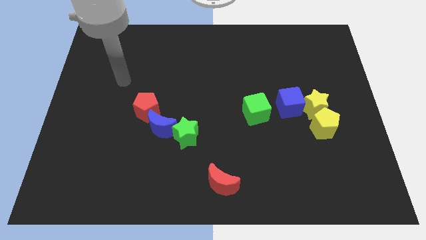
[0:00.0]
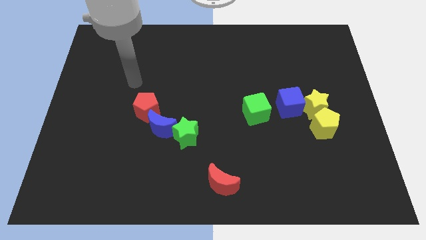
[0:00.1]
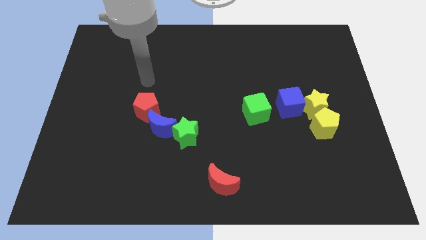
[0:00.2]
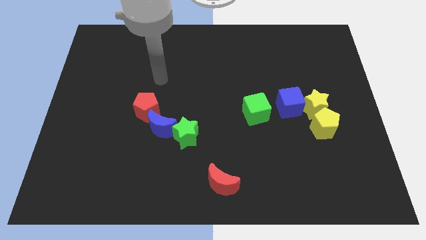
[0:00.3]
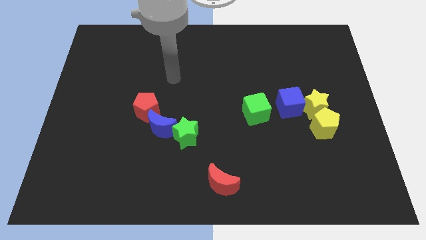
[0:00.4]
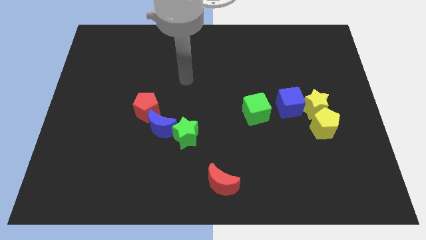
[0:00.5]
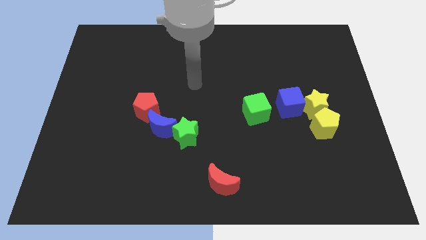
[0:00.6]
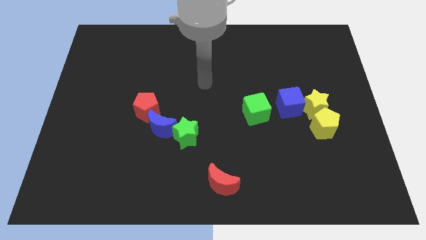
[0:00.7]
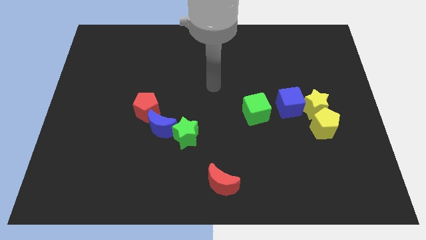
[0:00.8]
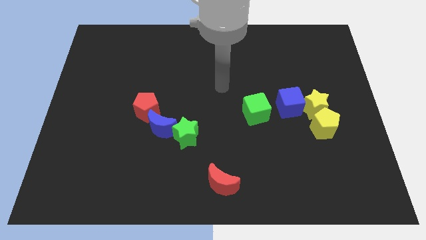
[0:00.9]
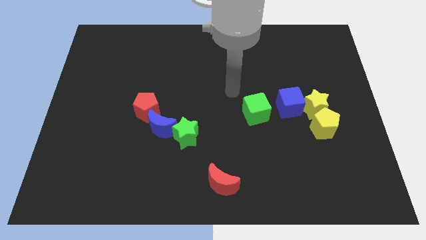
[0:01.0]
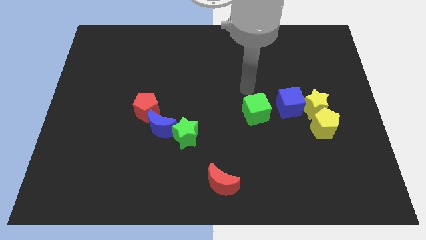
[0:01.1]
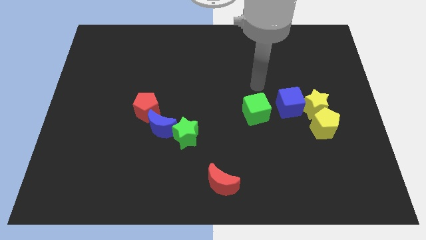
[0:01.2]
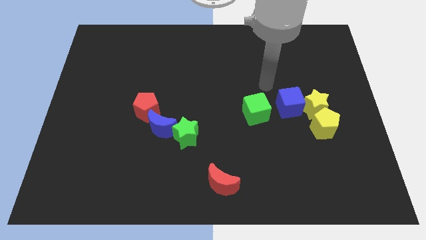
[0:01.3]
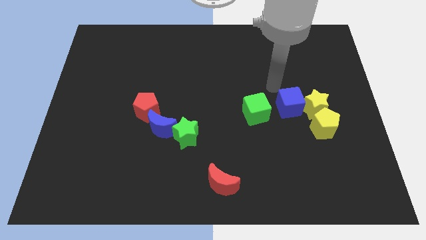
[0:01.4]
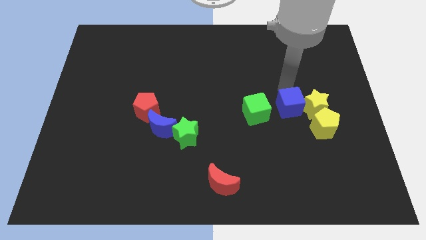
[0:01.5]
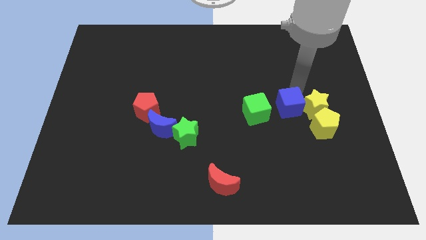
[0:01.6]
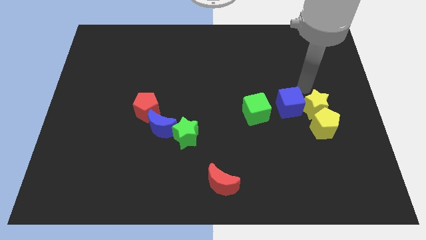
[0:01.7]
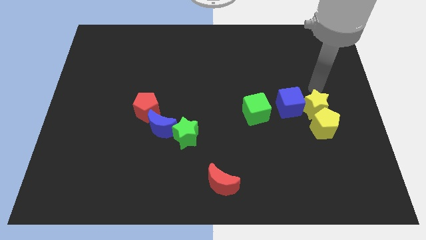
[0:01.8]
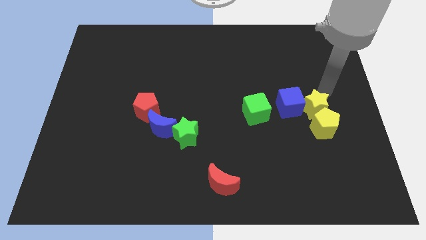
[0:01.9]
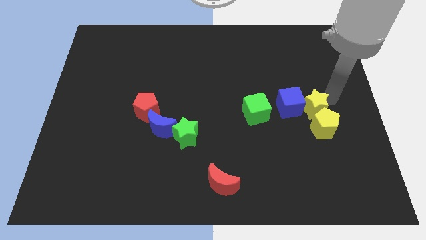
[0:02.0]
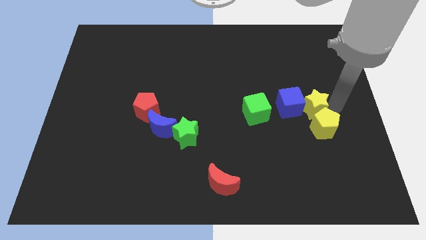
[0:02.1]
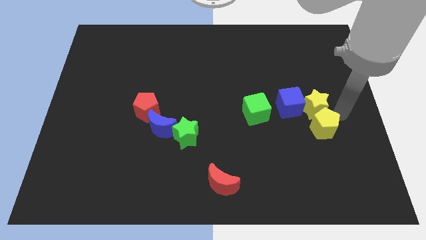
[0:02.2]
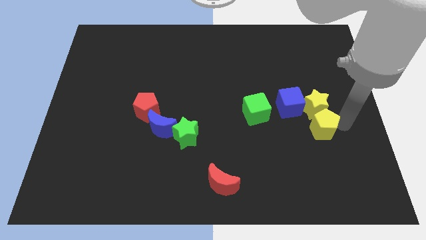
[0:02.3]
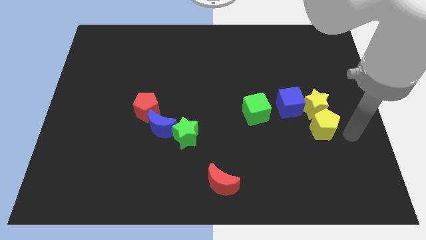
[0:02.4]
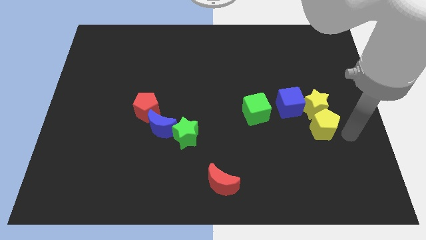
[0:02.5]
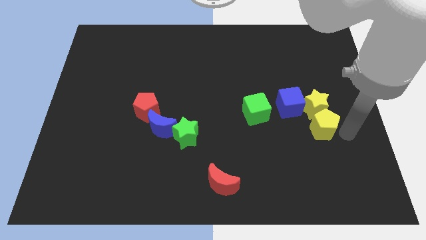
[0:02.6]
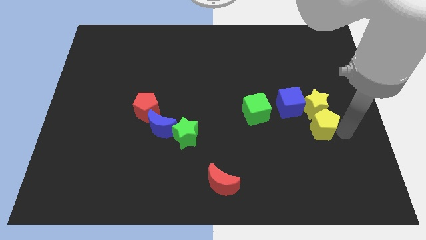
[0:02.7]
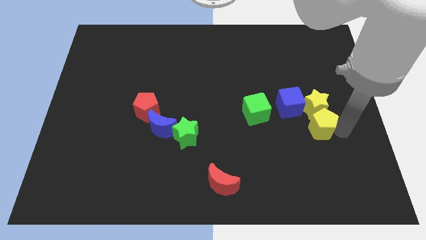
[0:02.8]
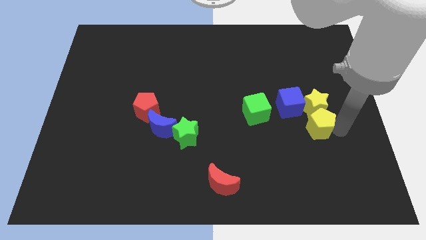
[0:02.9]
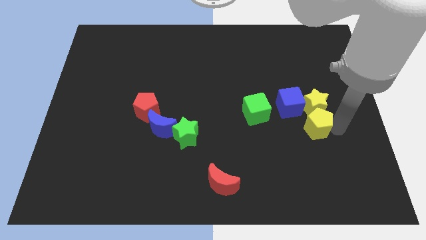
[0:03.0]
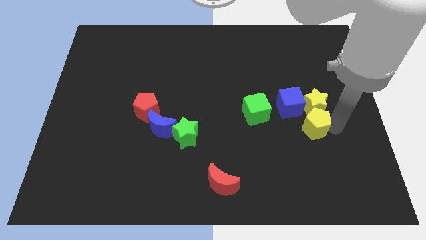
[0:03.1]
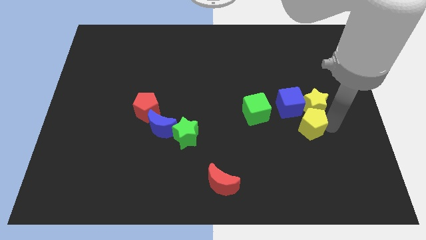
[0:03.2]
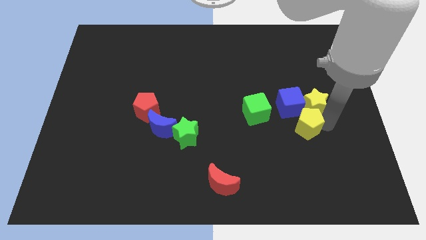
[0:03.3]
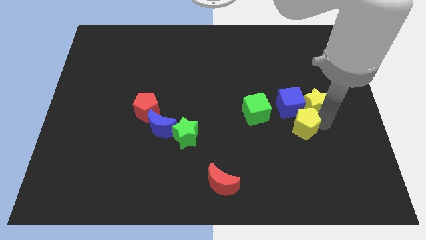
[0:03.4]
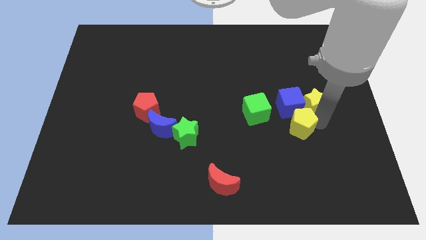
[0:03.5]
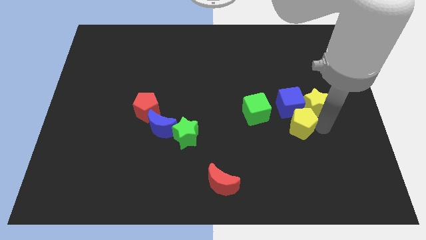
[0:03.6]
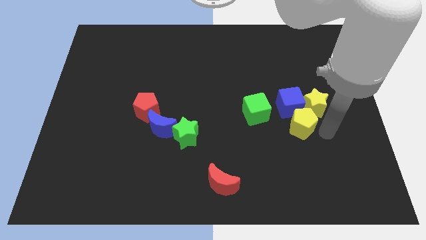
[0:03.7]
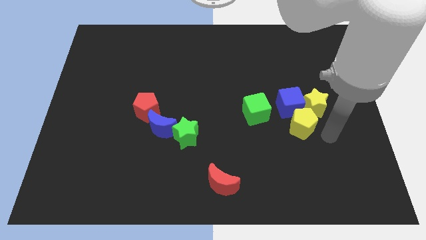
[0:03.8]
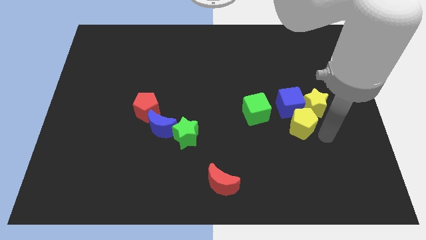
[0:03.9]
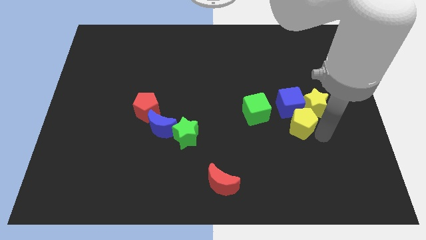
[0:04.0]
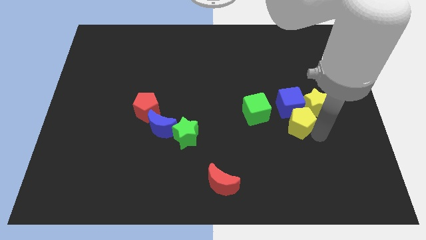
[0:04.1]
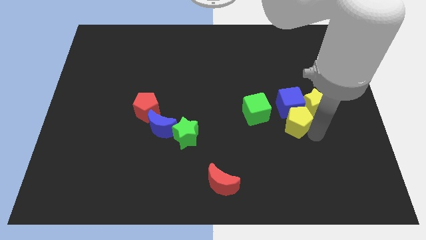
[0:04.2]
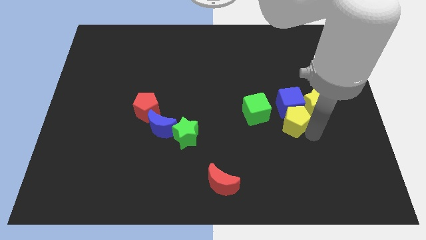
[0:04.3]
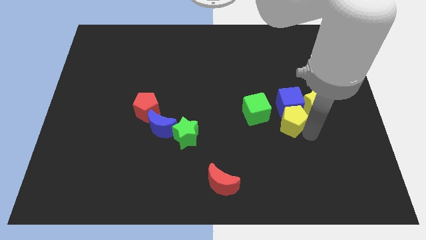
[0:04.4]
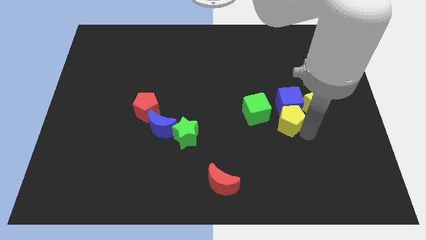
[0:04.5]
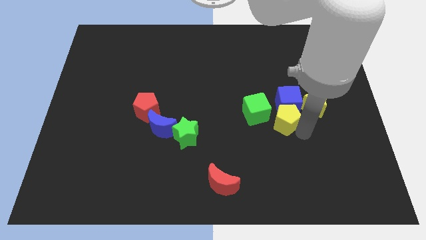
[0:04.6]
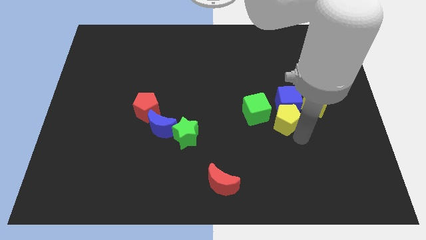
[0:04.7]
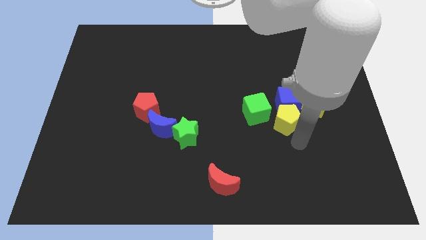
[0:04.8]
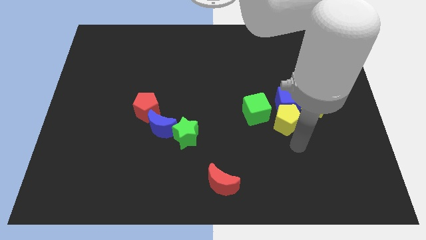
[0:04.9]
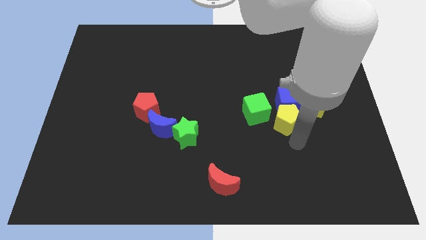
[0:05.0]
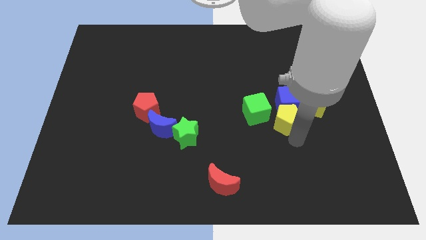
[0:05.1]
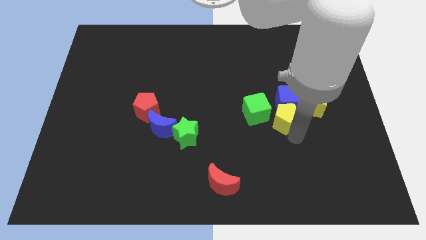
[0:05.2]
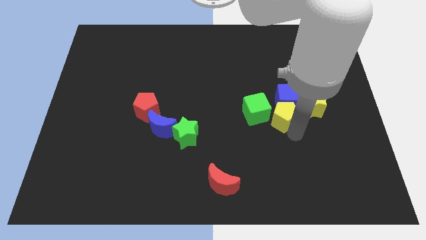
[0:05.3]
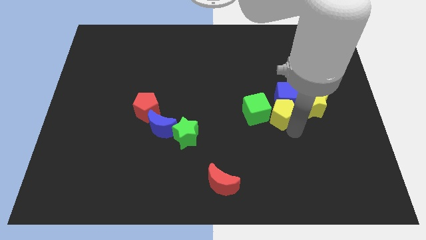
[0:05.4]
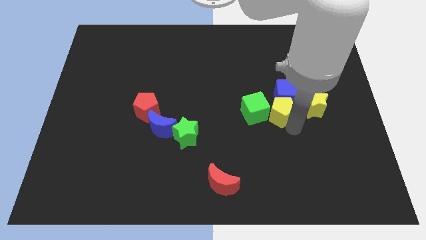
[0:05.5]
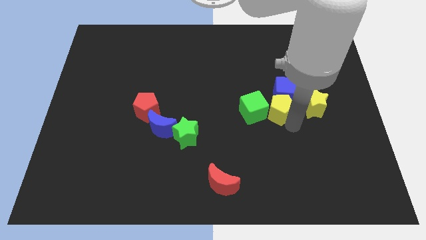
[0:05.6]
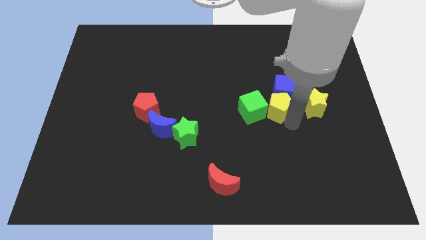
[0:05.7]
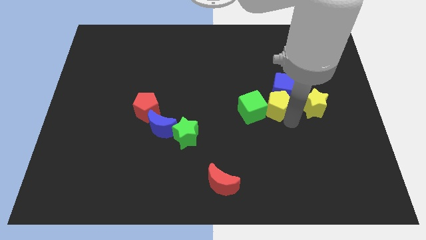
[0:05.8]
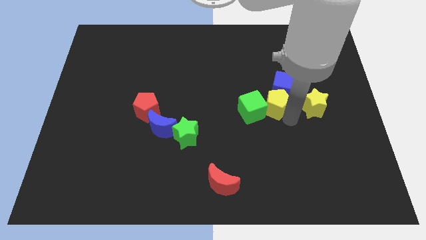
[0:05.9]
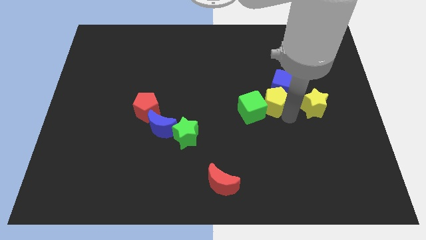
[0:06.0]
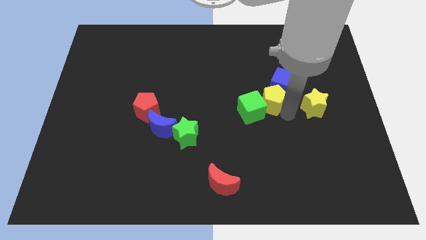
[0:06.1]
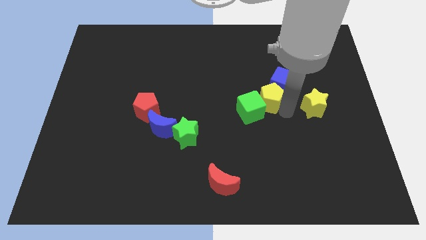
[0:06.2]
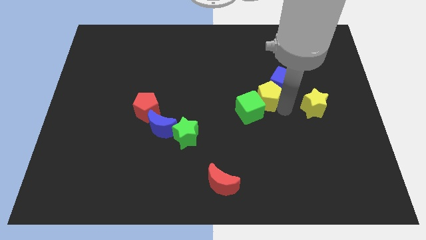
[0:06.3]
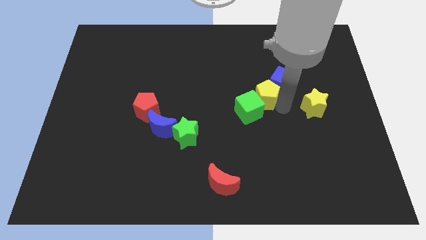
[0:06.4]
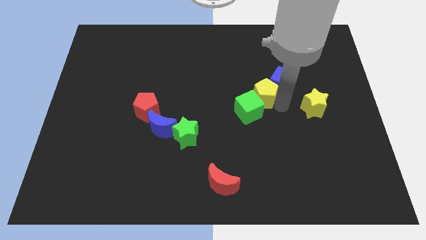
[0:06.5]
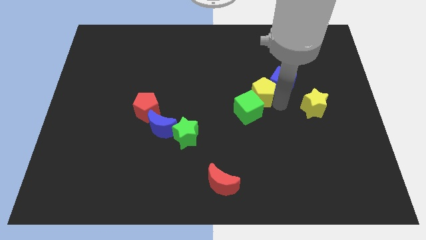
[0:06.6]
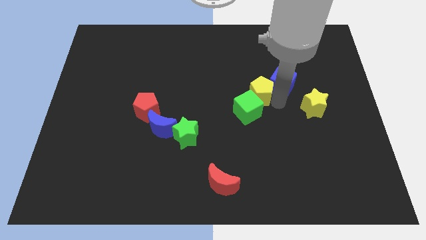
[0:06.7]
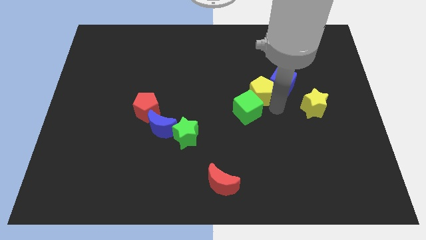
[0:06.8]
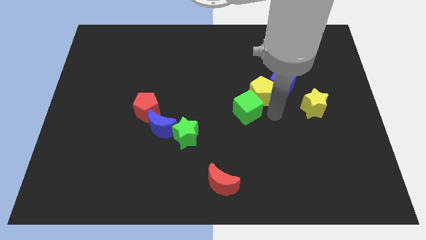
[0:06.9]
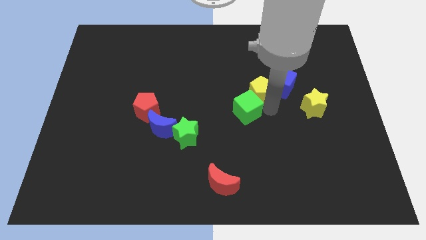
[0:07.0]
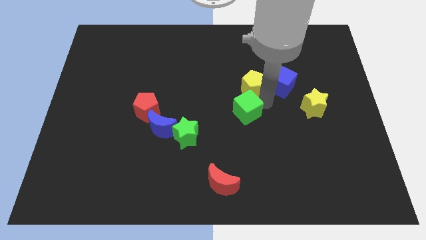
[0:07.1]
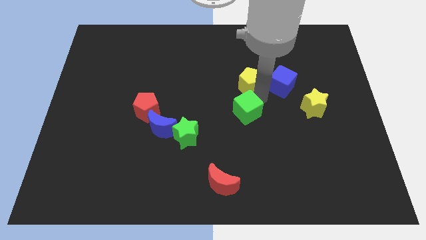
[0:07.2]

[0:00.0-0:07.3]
move the yellow pentagon up and left

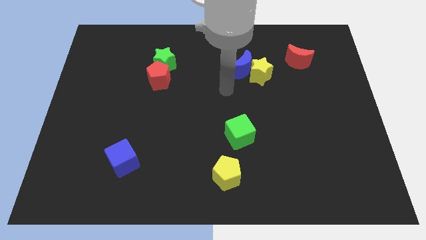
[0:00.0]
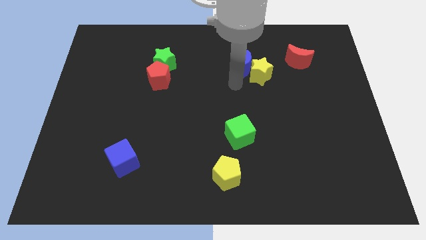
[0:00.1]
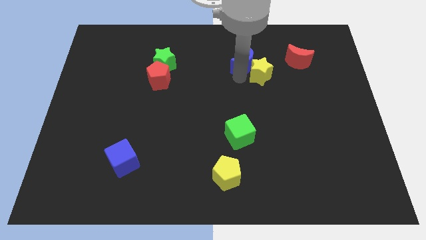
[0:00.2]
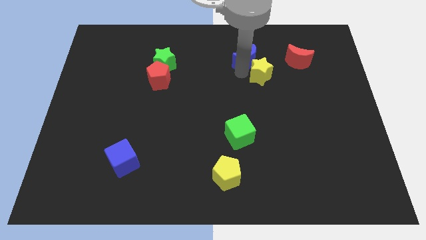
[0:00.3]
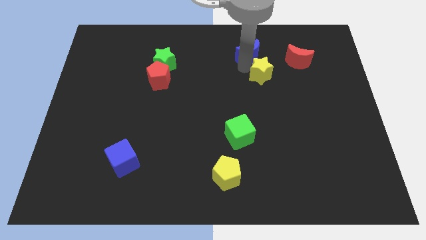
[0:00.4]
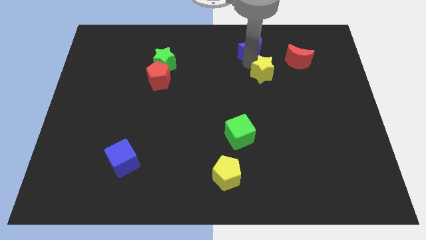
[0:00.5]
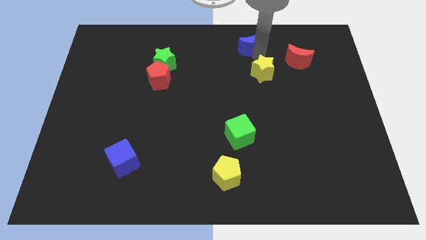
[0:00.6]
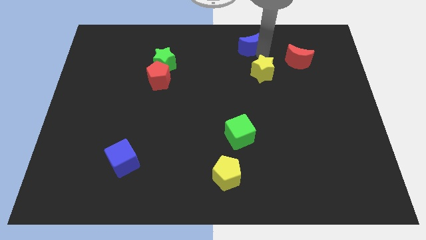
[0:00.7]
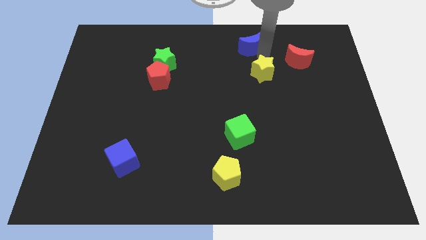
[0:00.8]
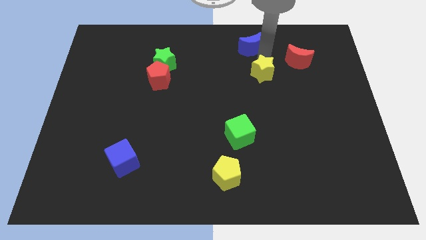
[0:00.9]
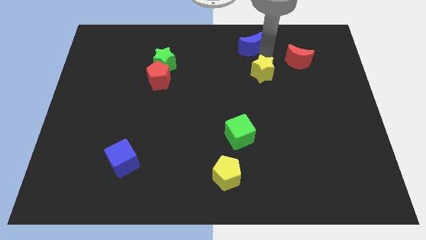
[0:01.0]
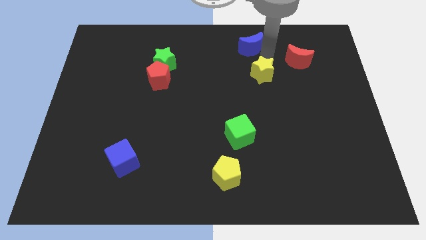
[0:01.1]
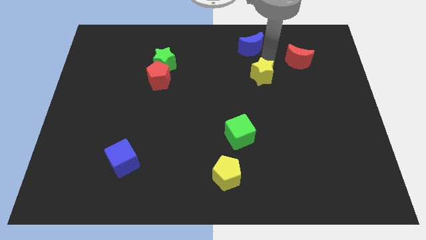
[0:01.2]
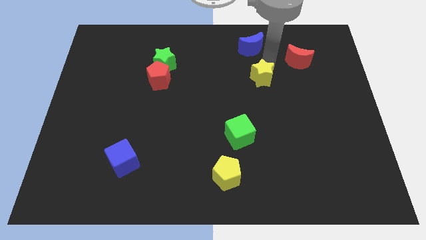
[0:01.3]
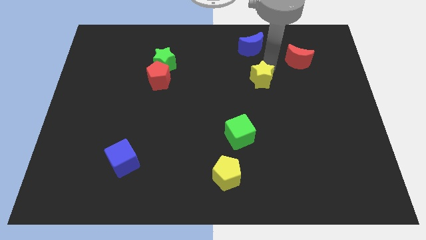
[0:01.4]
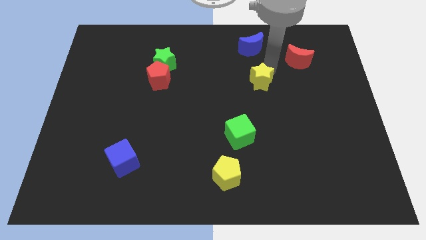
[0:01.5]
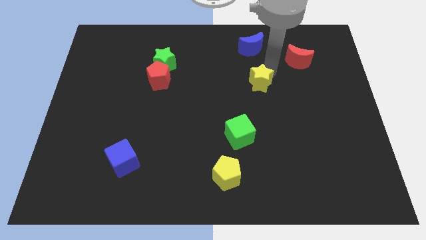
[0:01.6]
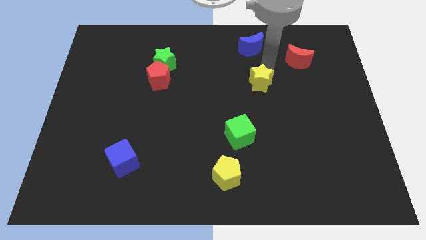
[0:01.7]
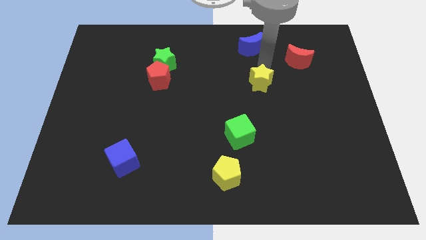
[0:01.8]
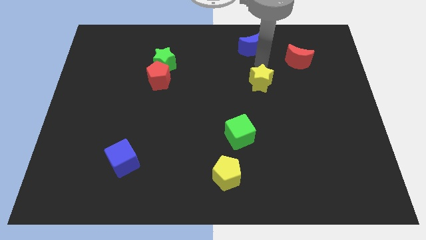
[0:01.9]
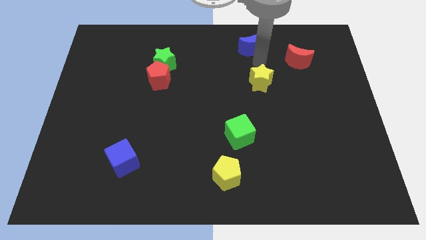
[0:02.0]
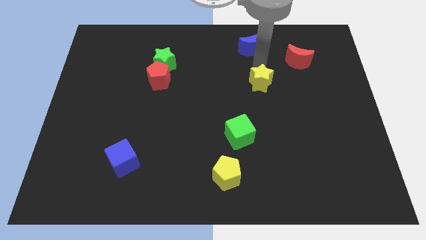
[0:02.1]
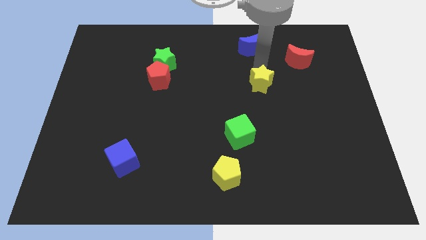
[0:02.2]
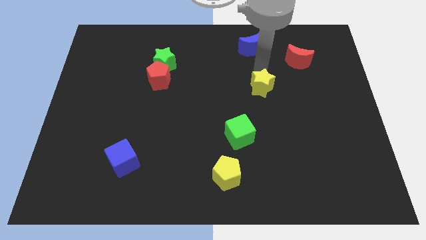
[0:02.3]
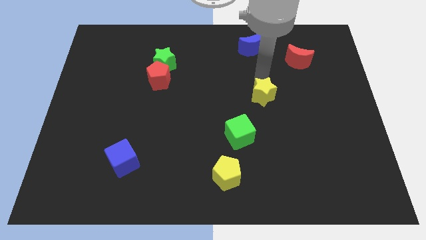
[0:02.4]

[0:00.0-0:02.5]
move the yellow star a little down
